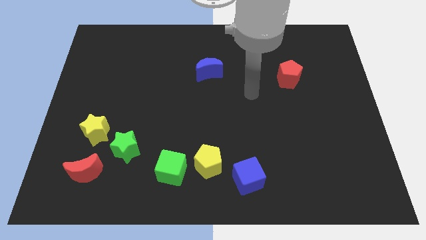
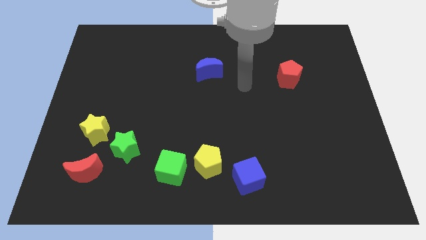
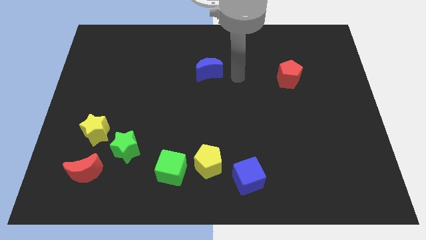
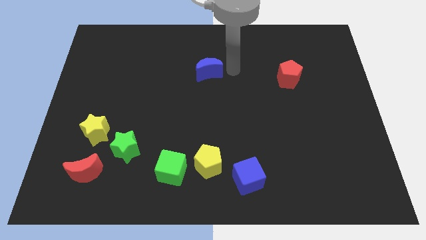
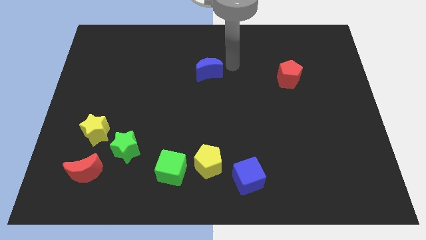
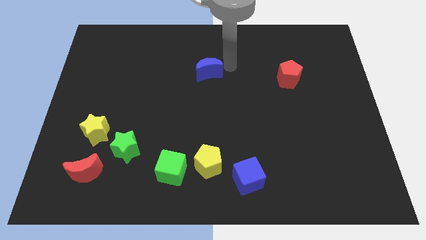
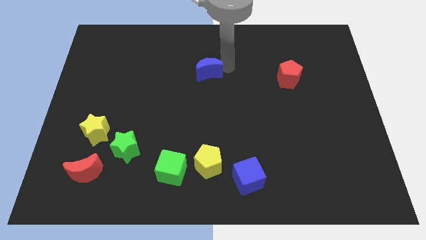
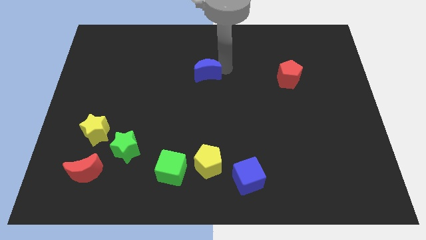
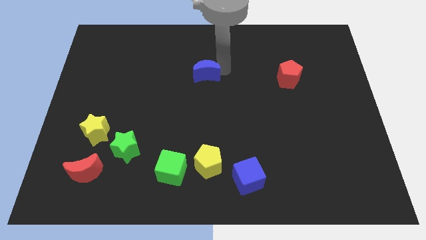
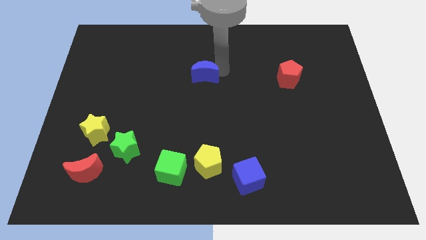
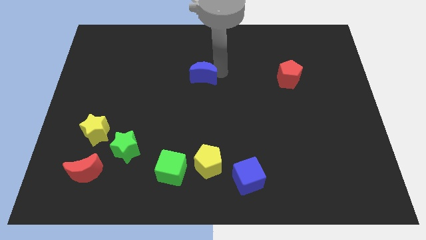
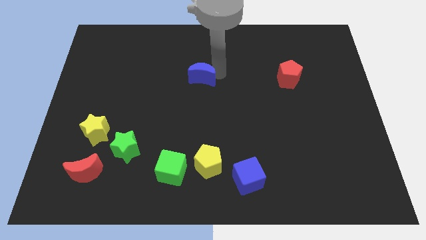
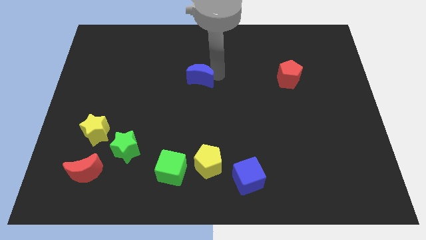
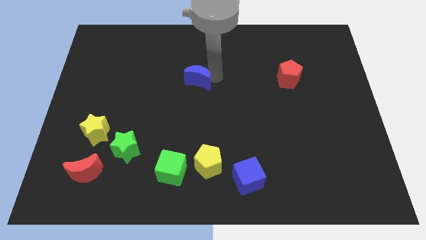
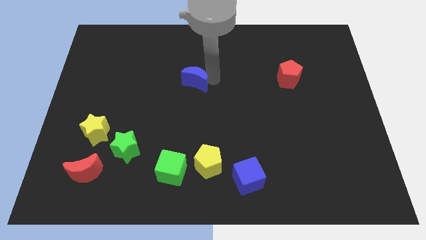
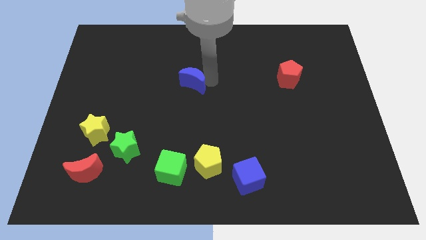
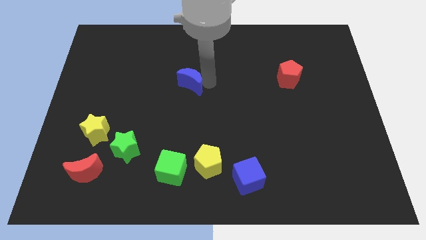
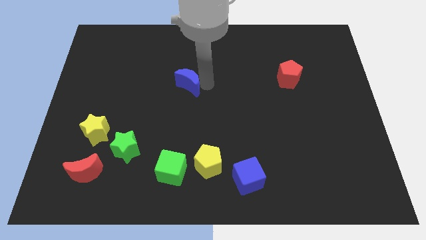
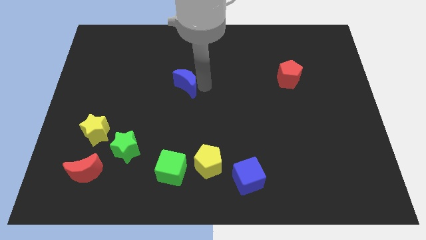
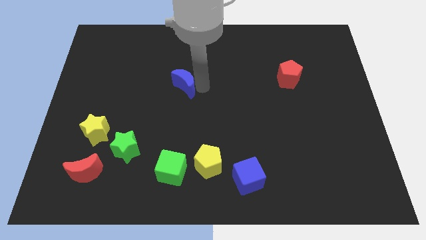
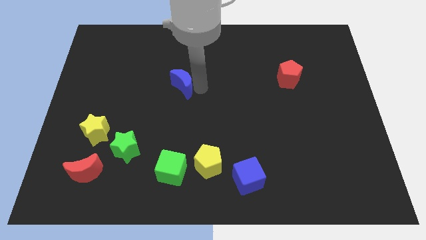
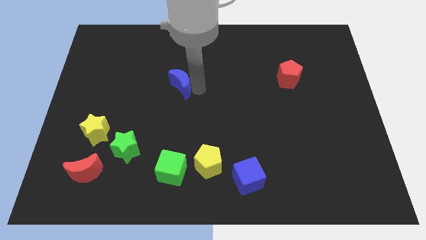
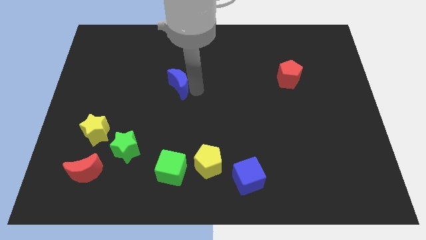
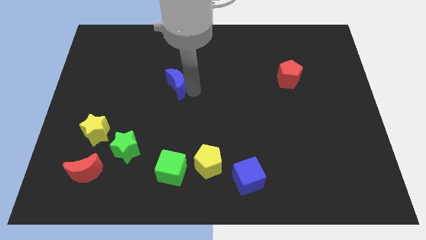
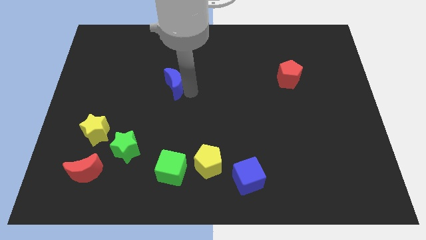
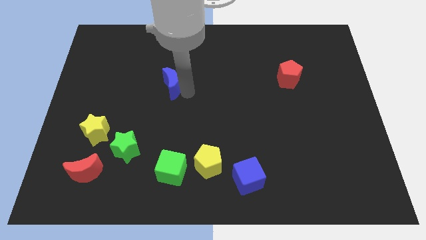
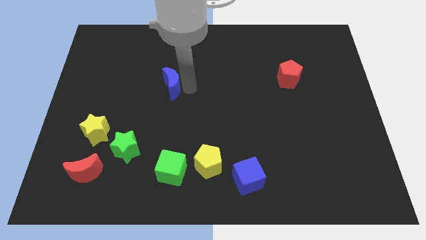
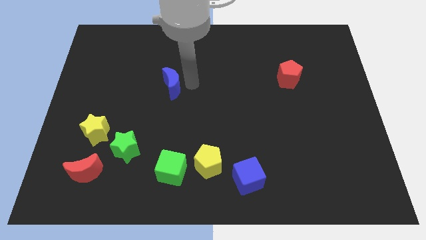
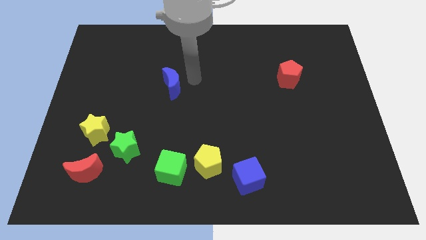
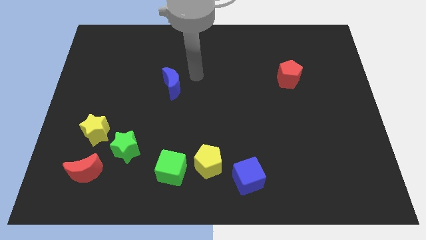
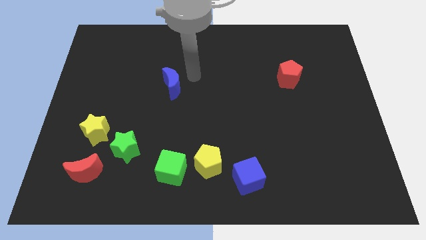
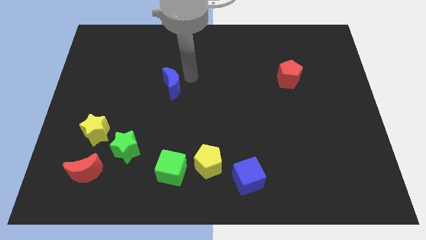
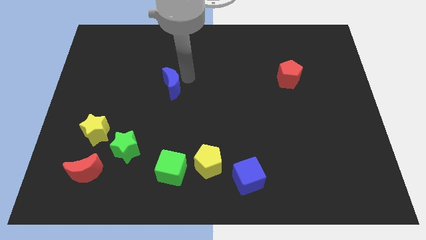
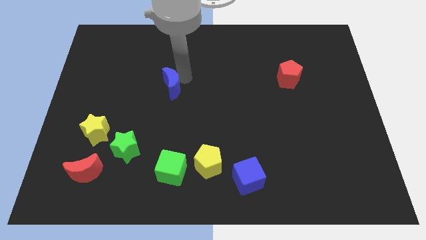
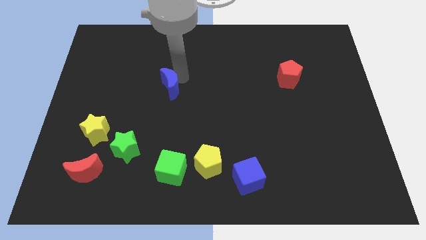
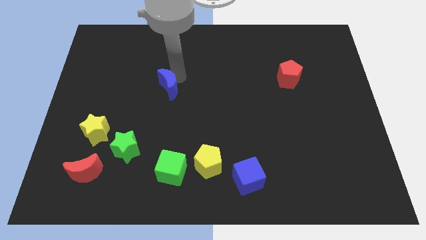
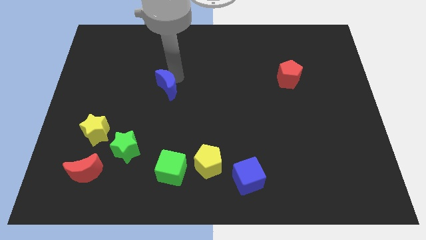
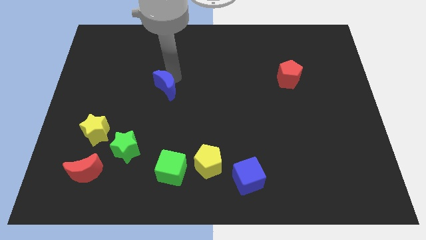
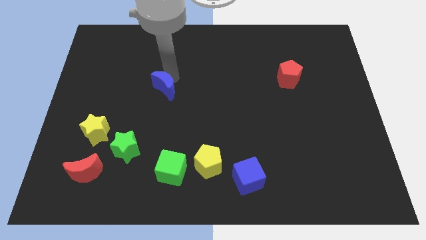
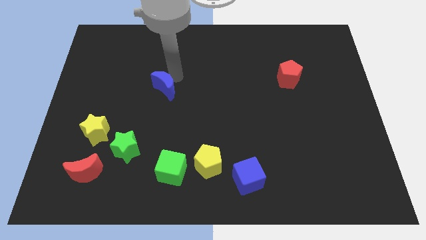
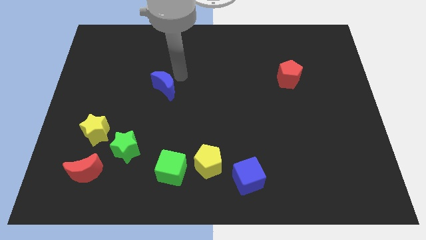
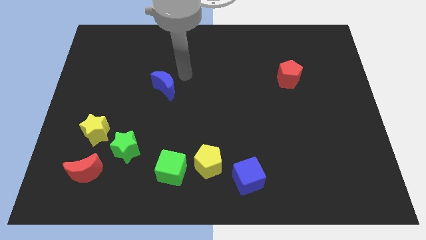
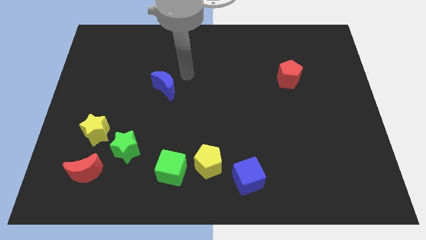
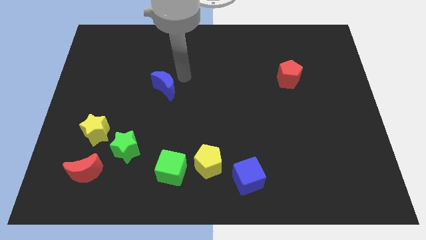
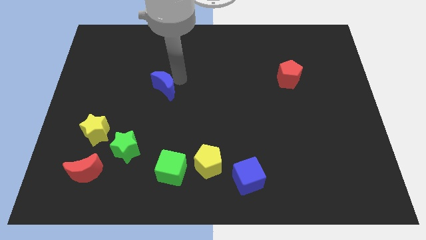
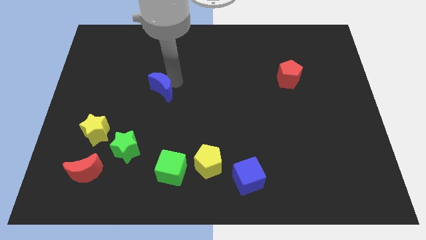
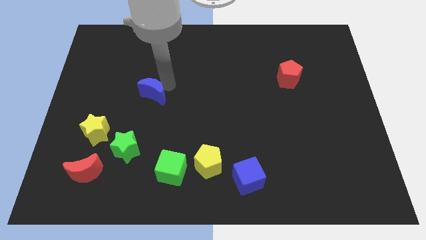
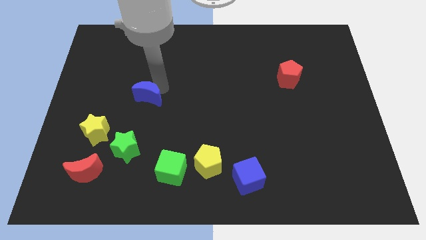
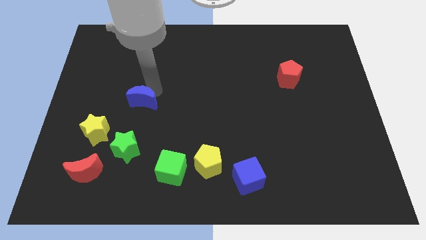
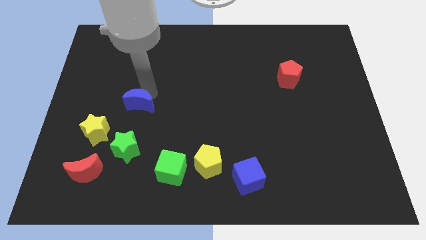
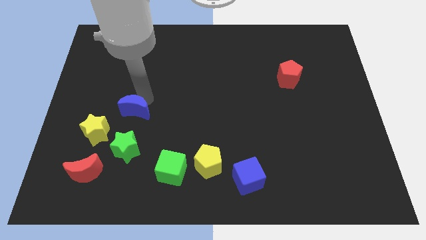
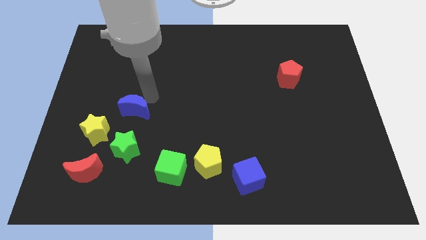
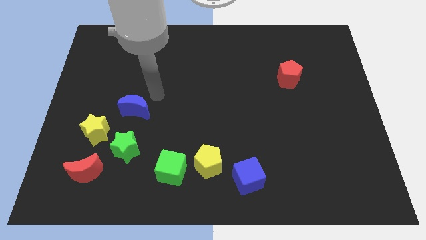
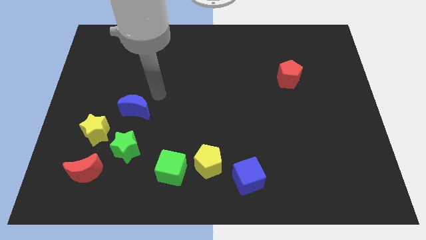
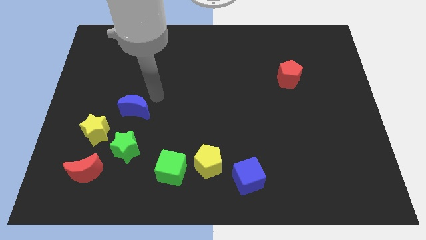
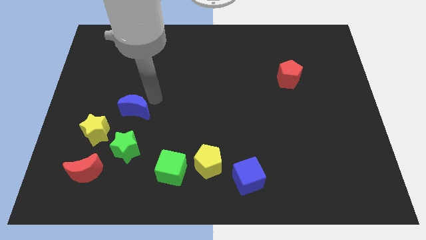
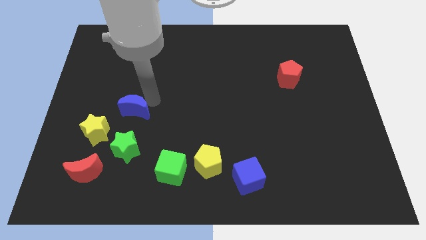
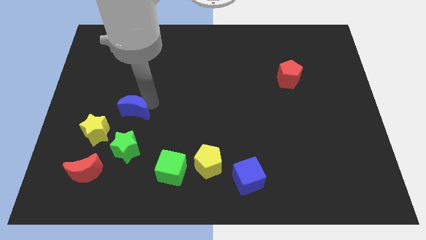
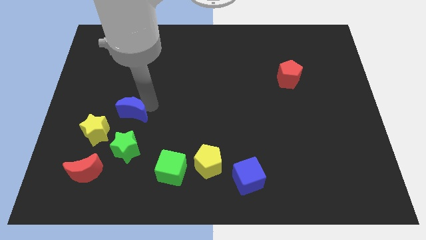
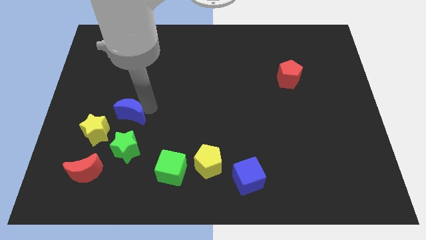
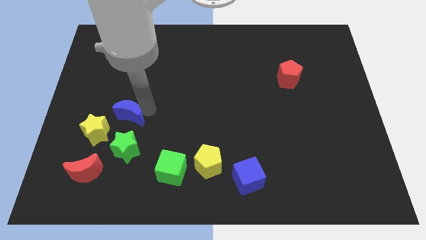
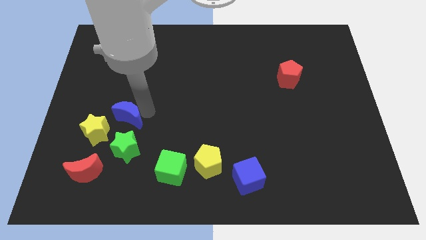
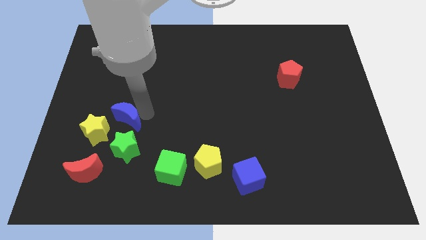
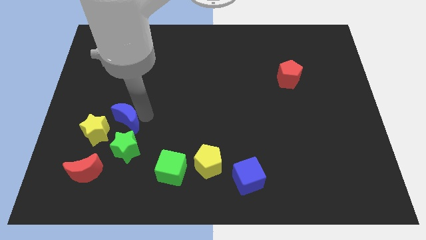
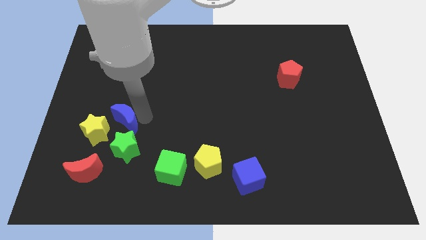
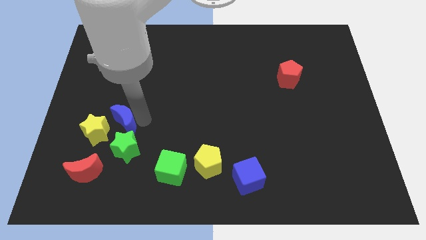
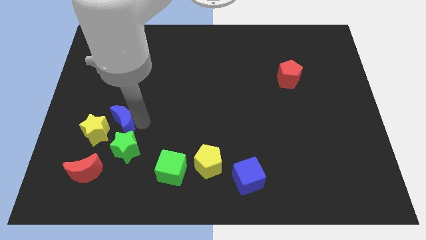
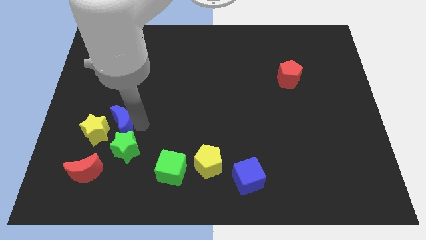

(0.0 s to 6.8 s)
push the blue moon to the yellow star

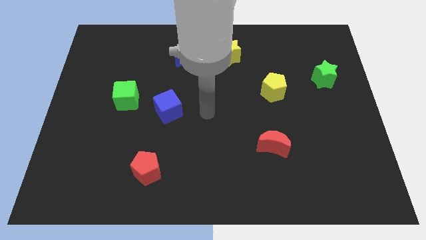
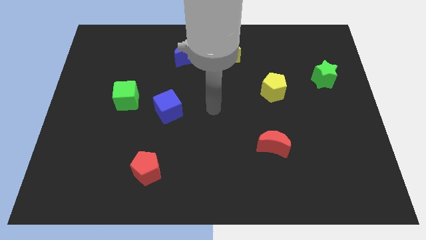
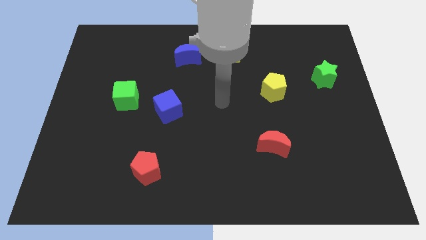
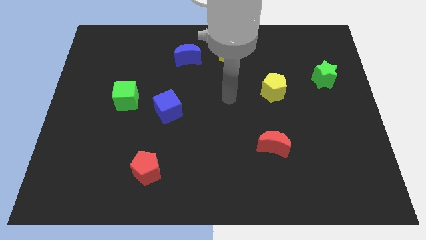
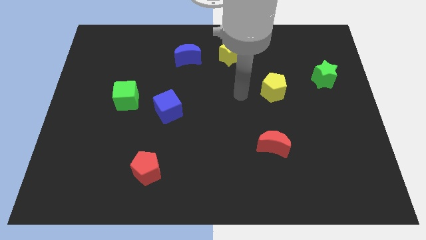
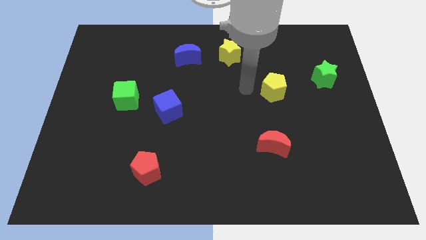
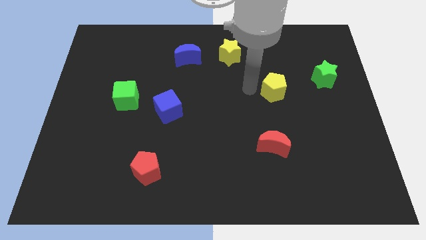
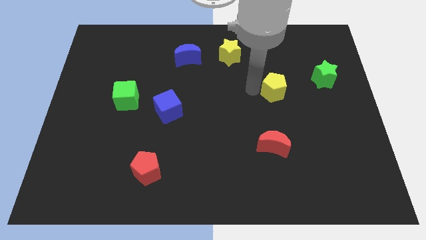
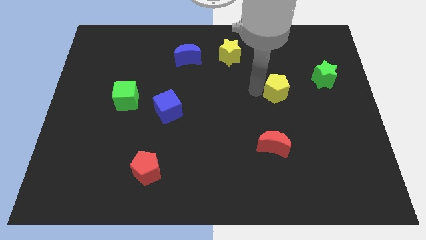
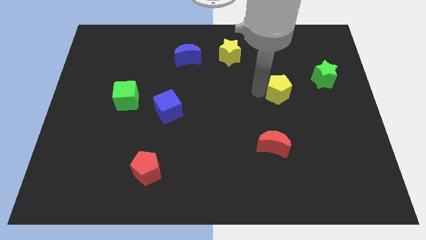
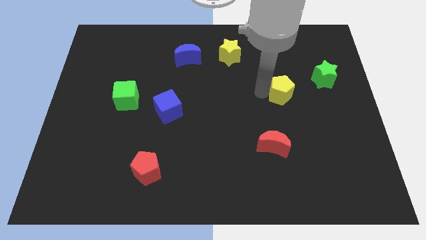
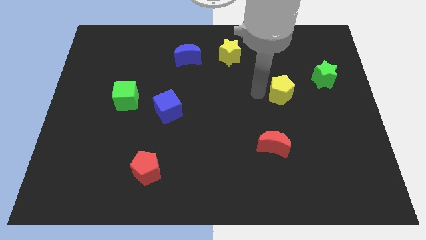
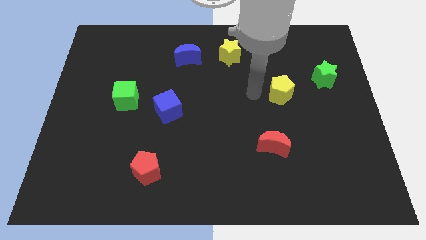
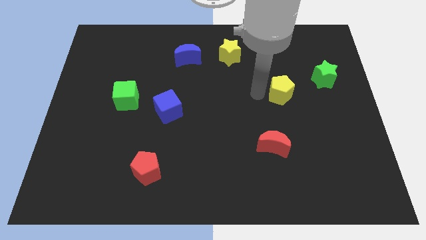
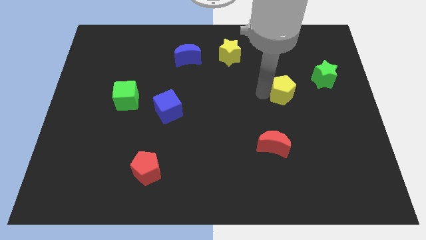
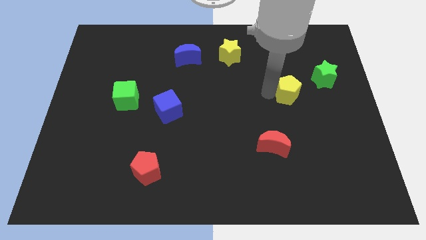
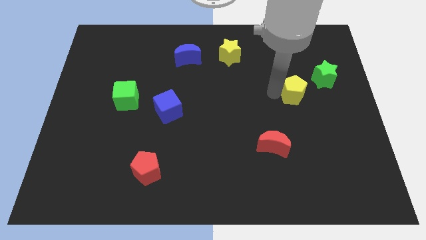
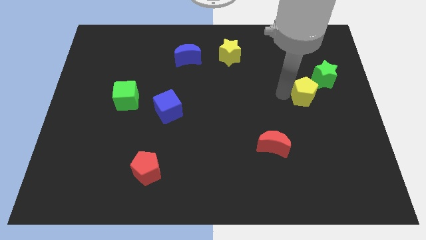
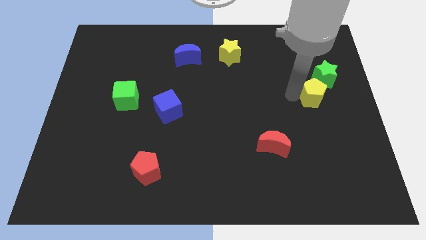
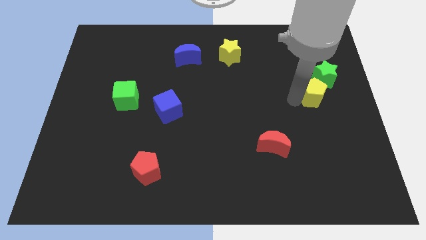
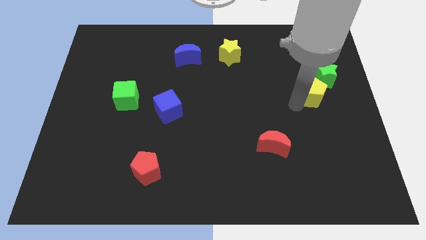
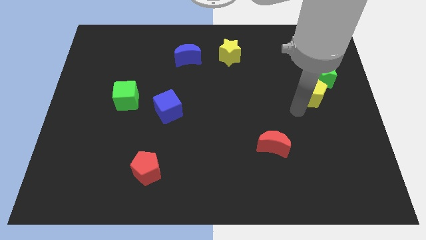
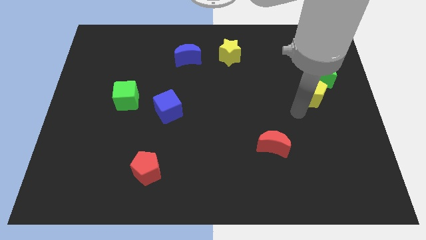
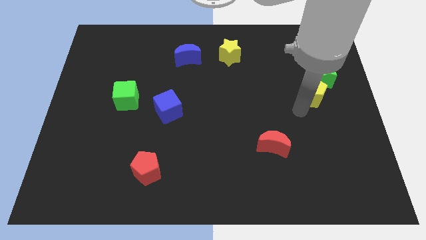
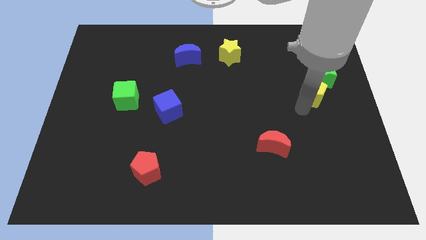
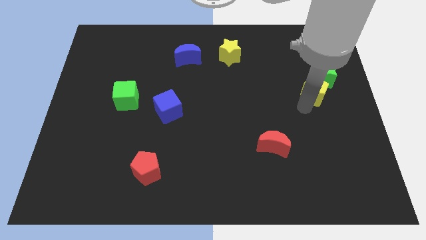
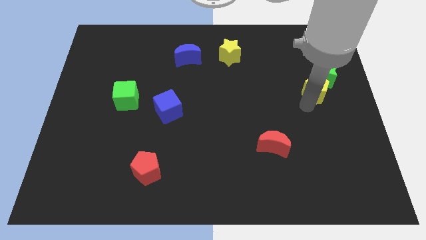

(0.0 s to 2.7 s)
put the yellow pentagon close to the green star
